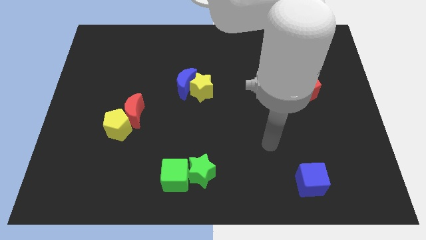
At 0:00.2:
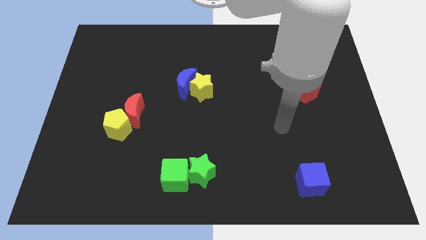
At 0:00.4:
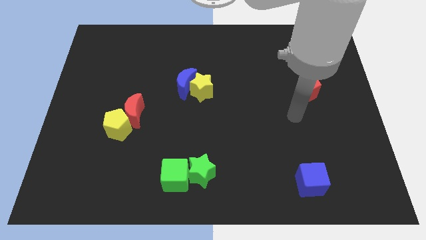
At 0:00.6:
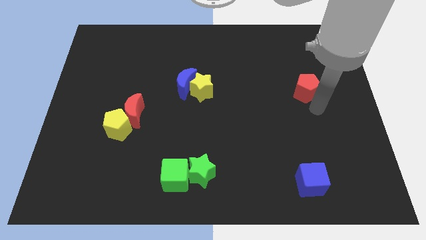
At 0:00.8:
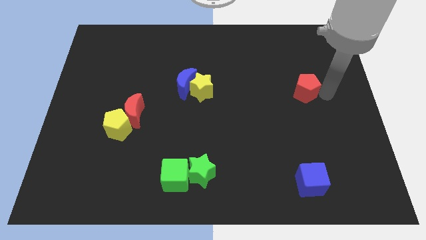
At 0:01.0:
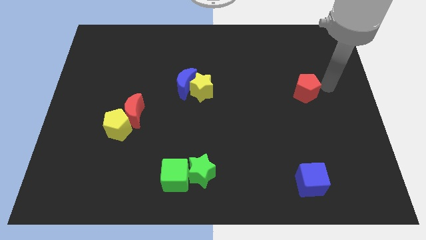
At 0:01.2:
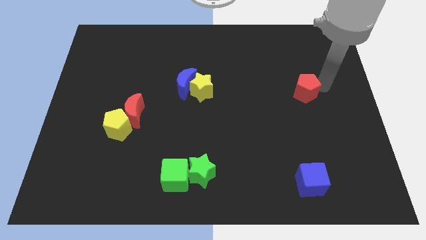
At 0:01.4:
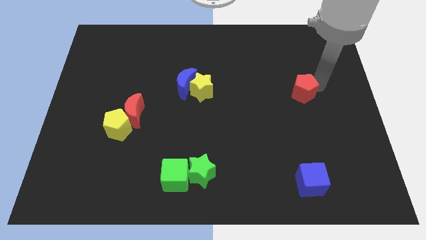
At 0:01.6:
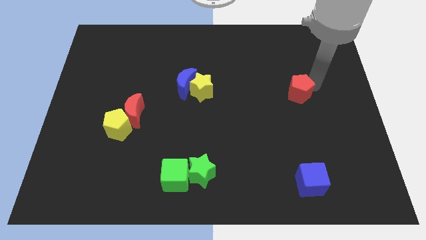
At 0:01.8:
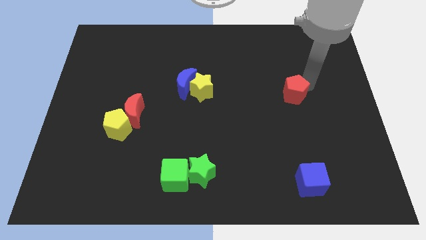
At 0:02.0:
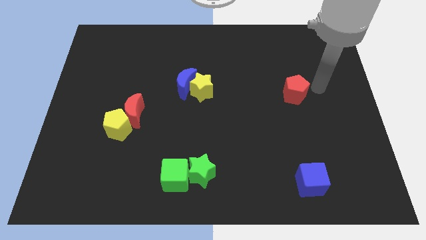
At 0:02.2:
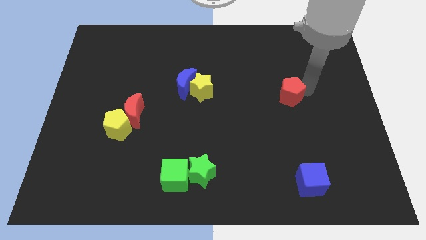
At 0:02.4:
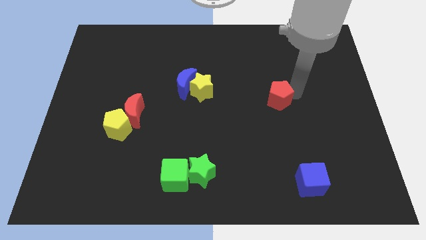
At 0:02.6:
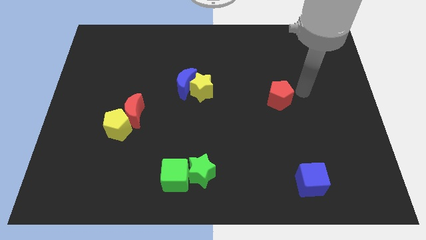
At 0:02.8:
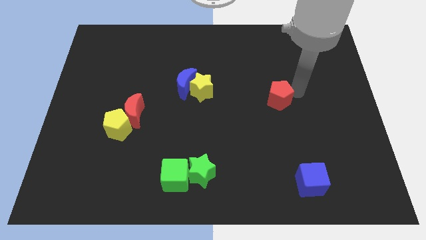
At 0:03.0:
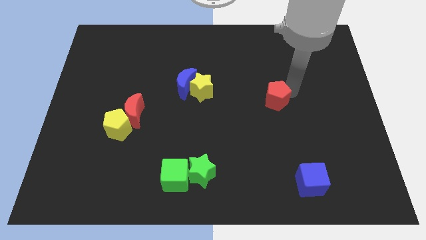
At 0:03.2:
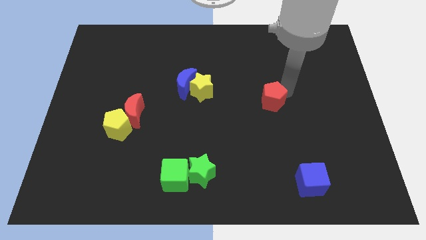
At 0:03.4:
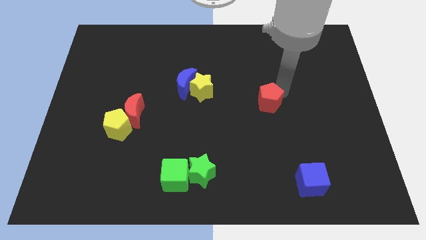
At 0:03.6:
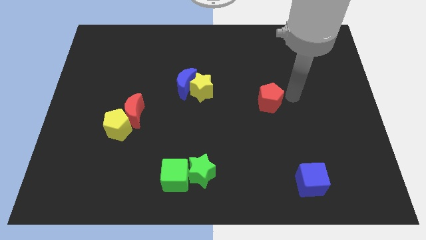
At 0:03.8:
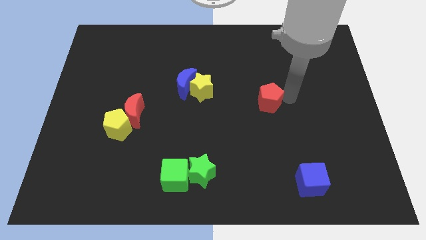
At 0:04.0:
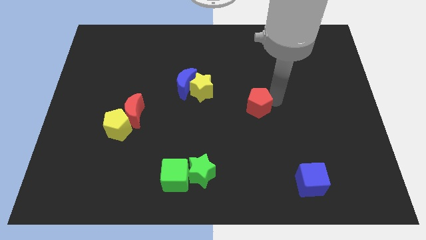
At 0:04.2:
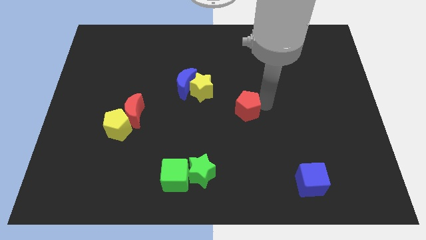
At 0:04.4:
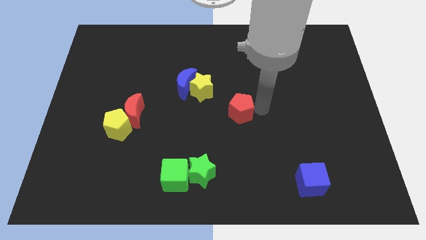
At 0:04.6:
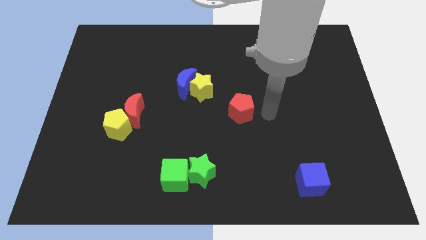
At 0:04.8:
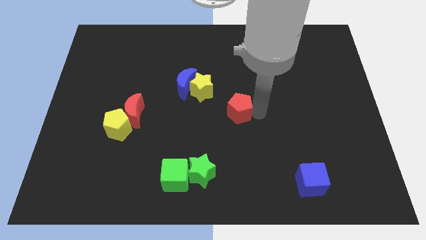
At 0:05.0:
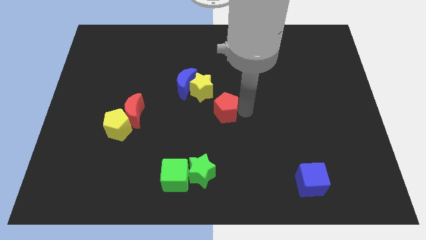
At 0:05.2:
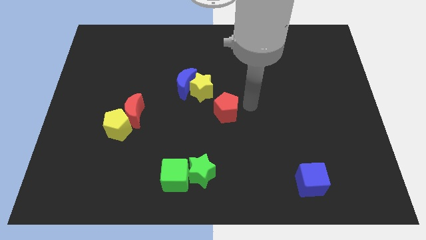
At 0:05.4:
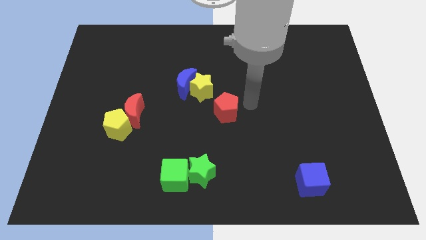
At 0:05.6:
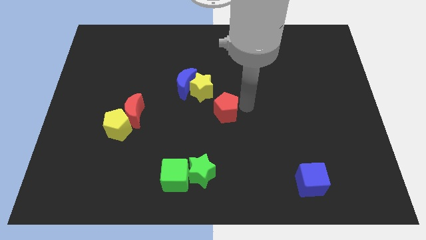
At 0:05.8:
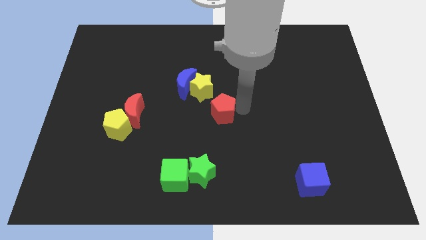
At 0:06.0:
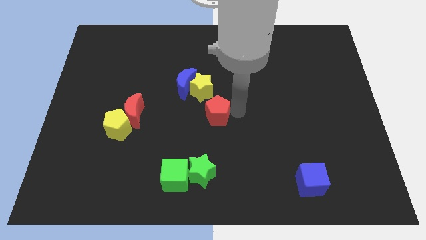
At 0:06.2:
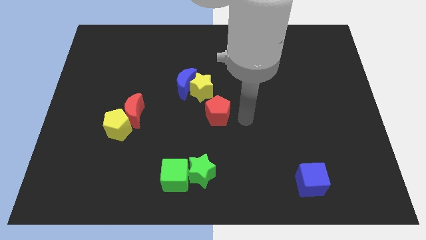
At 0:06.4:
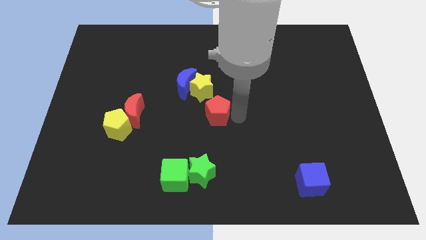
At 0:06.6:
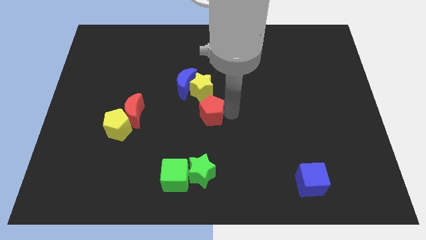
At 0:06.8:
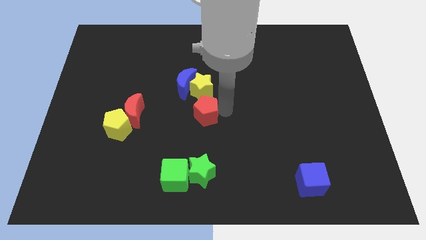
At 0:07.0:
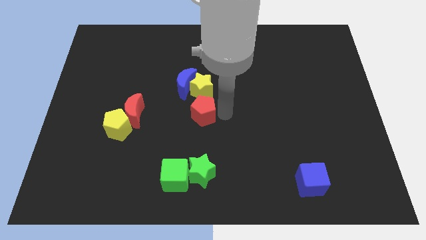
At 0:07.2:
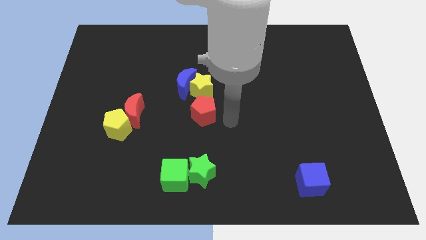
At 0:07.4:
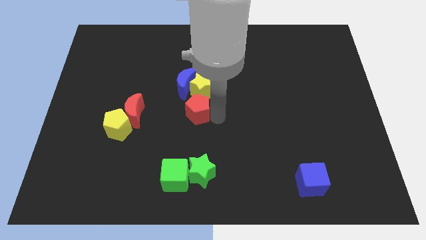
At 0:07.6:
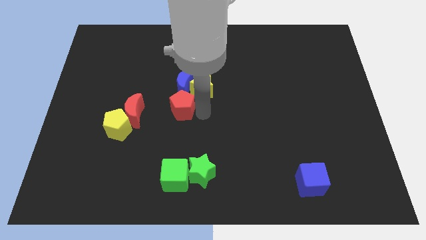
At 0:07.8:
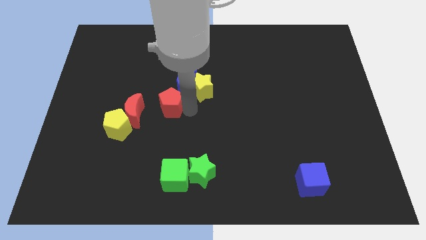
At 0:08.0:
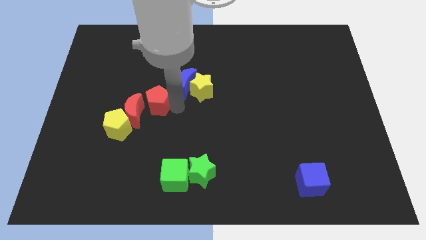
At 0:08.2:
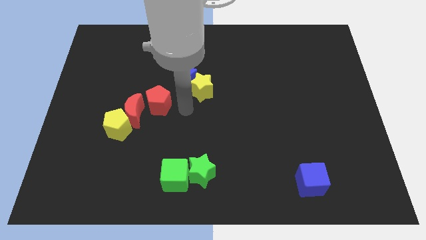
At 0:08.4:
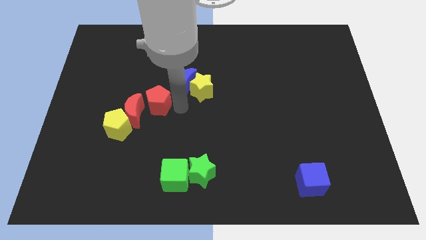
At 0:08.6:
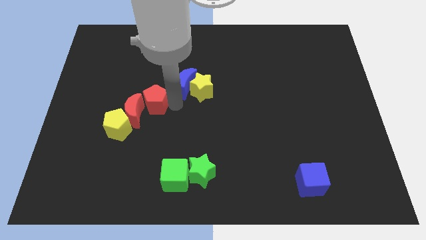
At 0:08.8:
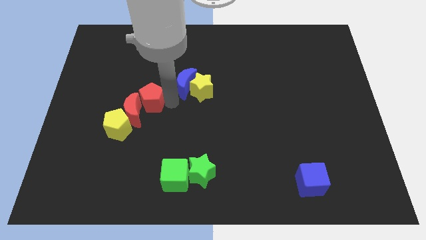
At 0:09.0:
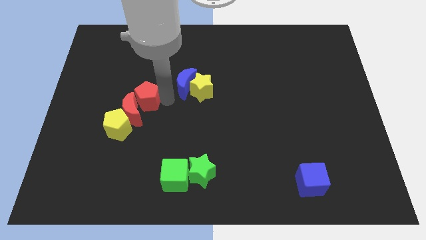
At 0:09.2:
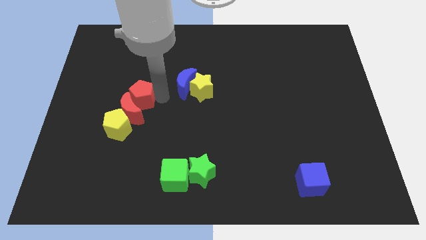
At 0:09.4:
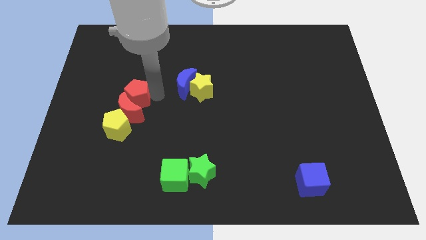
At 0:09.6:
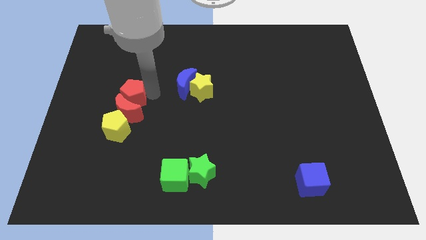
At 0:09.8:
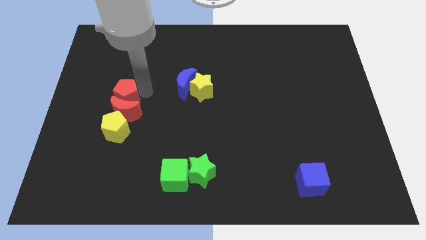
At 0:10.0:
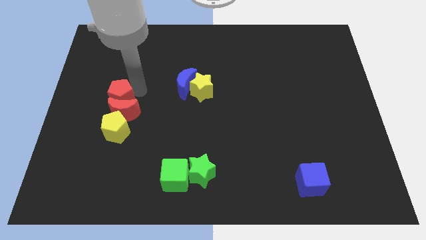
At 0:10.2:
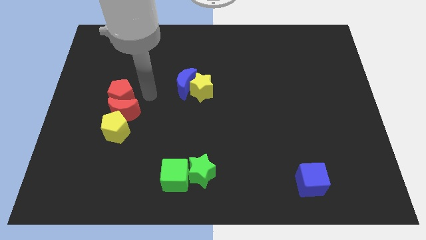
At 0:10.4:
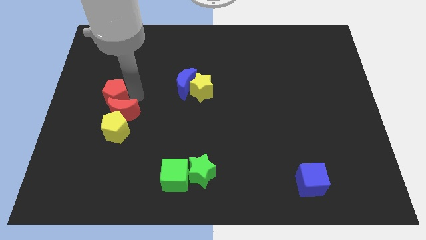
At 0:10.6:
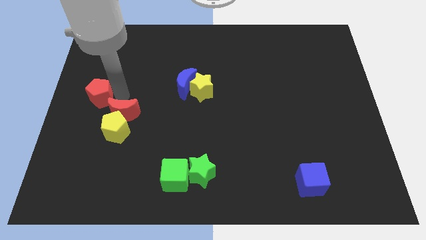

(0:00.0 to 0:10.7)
slide the red pentagon to the center left

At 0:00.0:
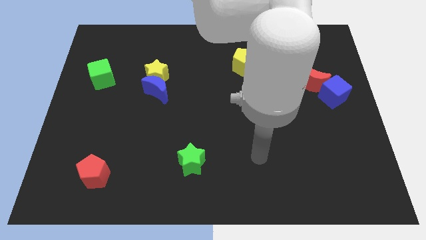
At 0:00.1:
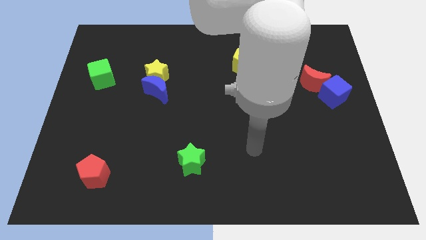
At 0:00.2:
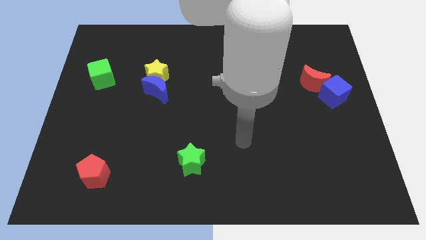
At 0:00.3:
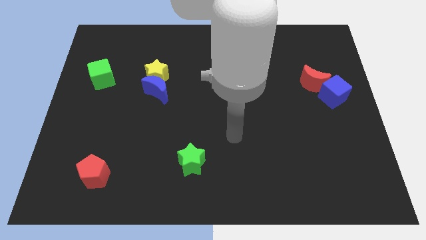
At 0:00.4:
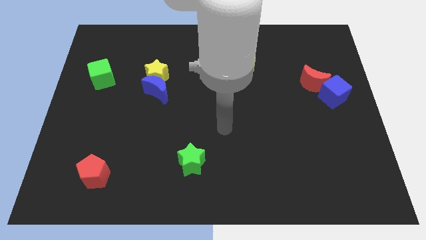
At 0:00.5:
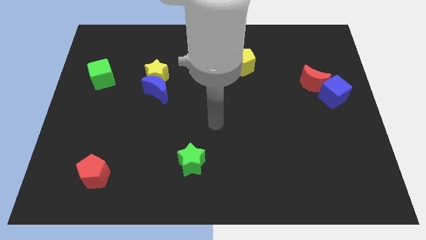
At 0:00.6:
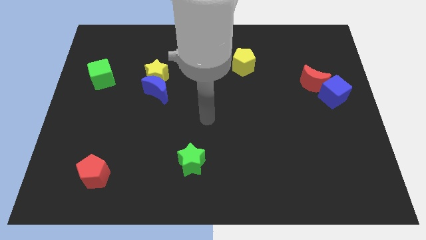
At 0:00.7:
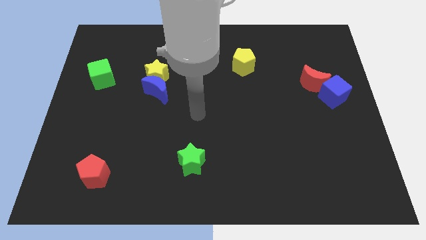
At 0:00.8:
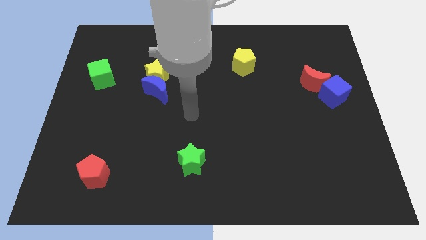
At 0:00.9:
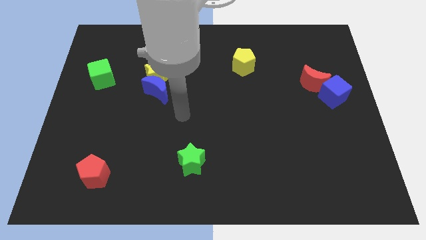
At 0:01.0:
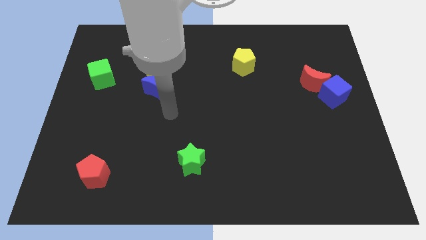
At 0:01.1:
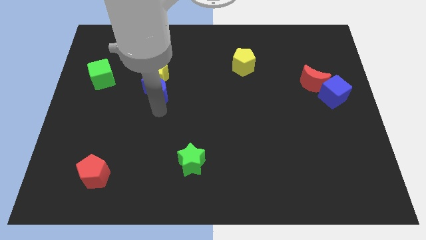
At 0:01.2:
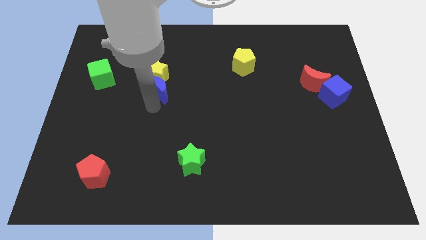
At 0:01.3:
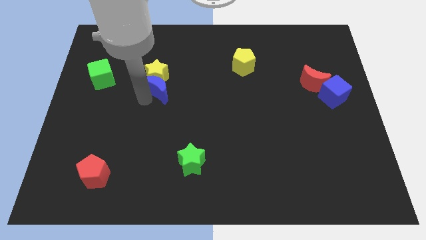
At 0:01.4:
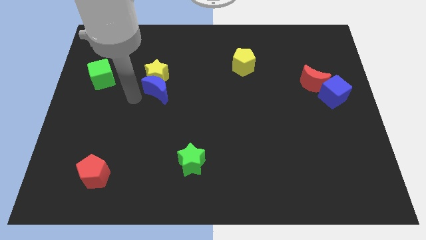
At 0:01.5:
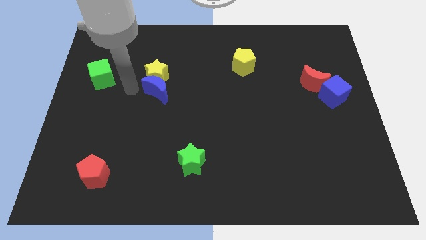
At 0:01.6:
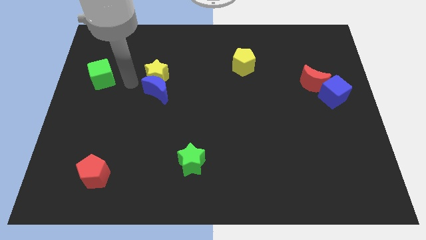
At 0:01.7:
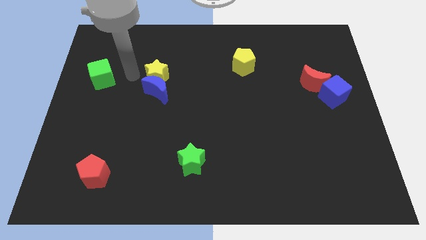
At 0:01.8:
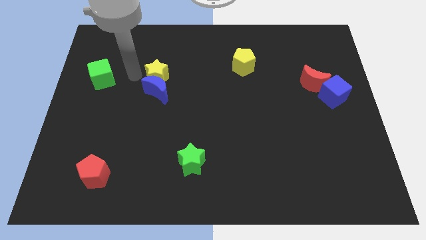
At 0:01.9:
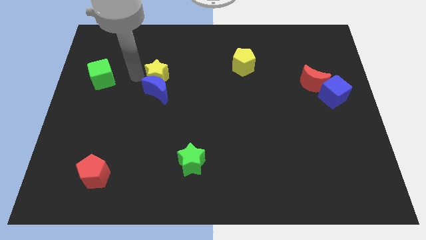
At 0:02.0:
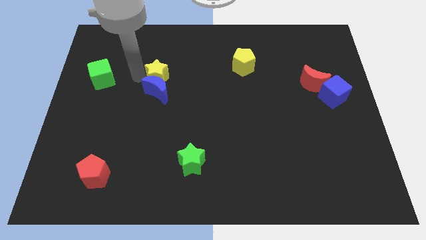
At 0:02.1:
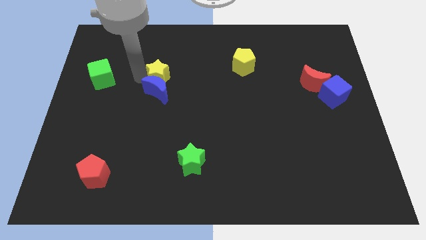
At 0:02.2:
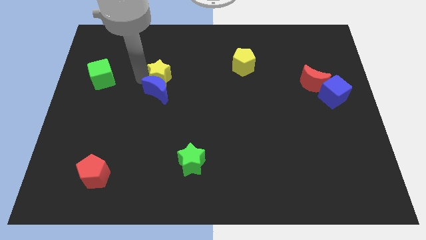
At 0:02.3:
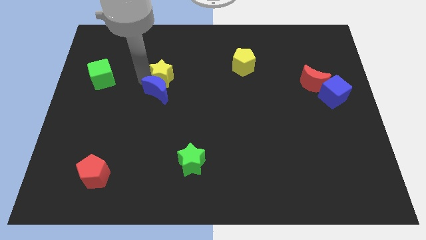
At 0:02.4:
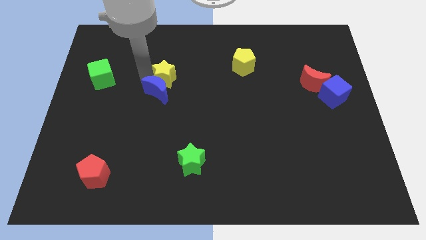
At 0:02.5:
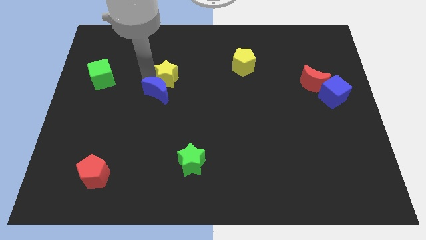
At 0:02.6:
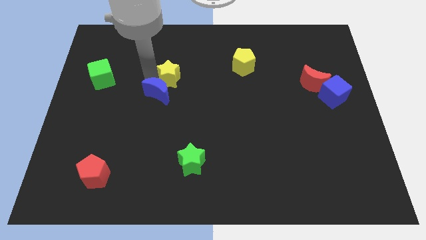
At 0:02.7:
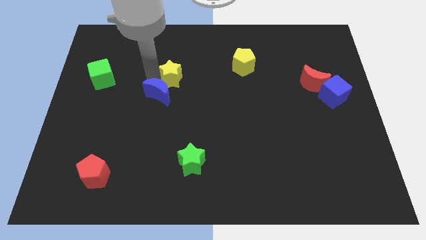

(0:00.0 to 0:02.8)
push the yellow star to the middle of the board
